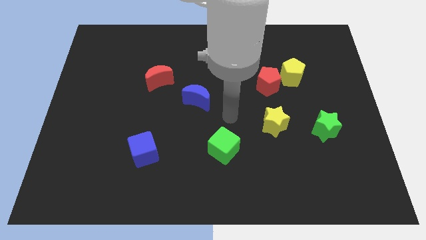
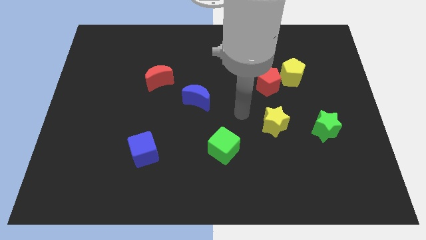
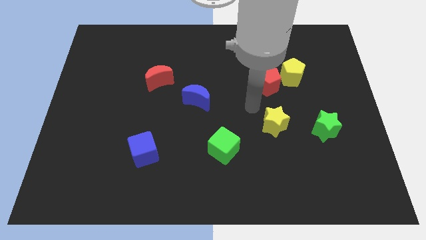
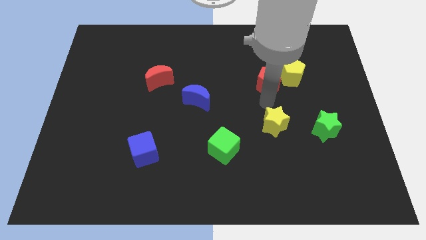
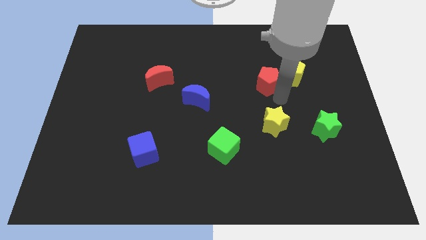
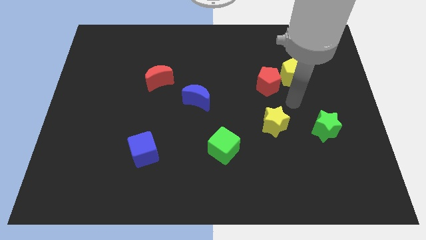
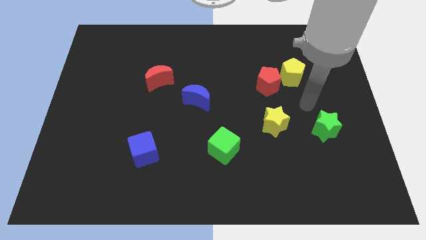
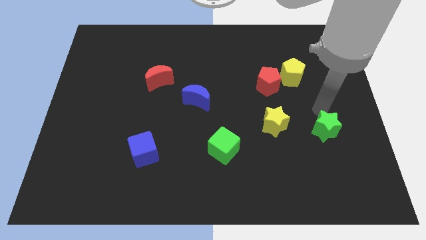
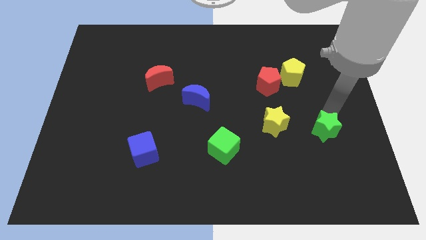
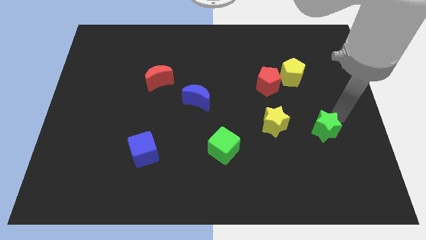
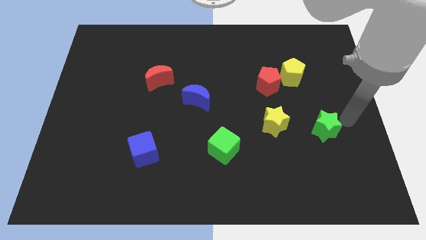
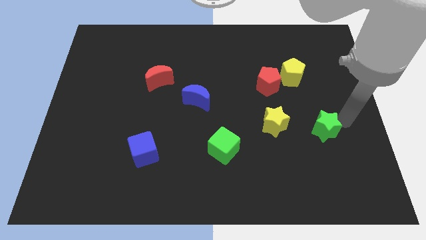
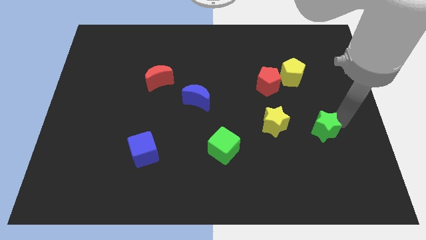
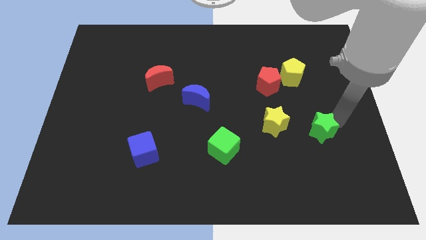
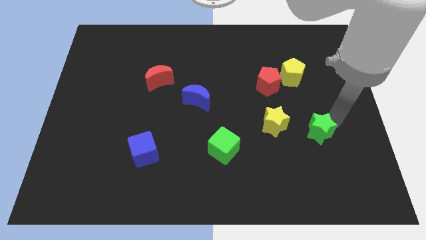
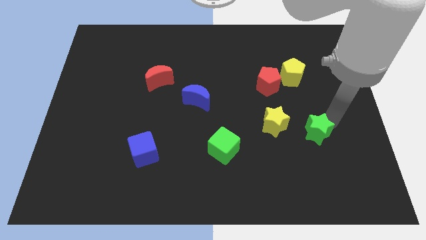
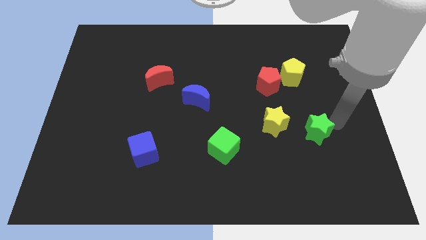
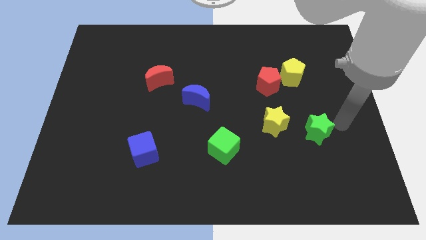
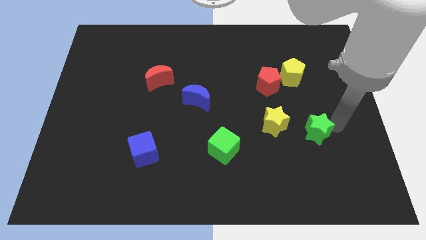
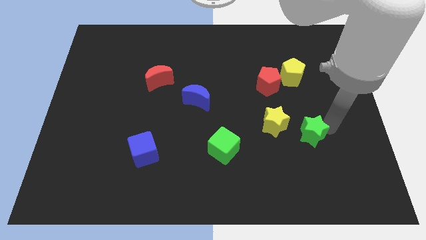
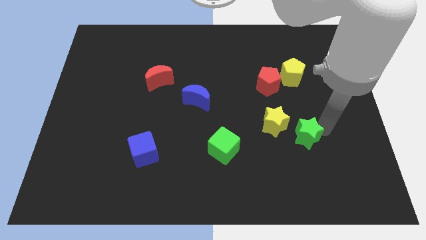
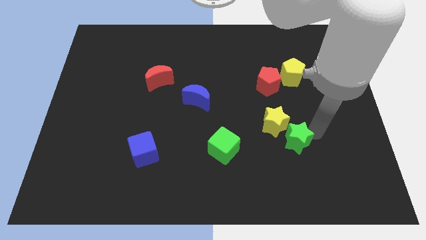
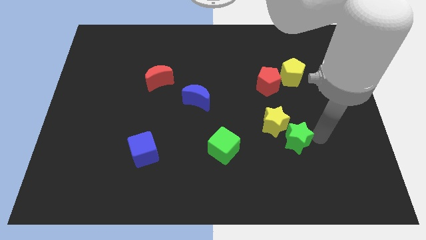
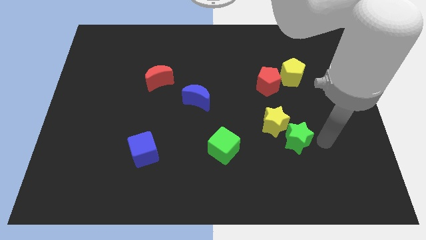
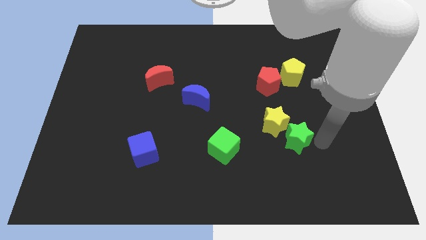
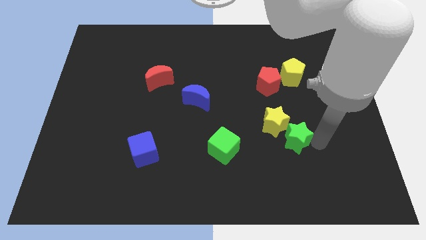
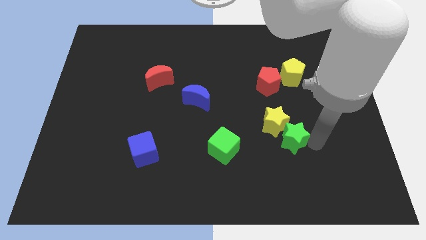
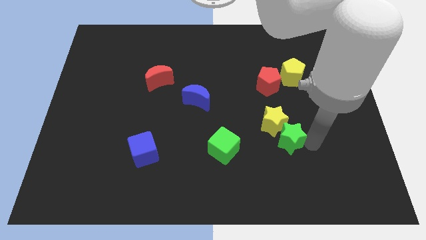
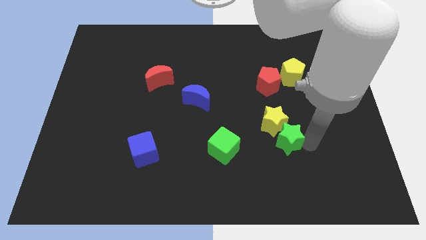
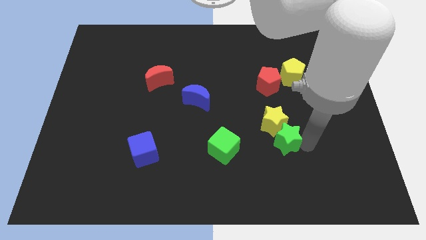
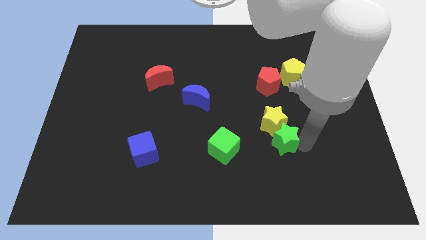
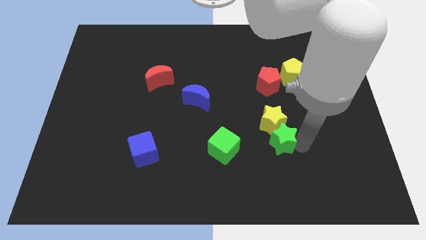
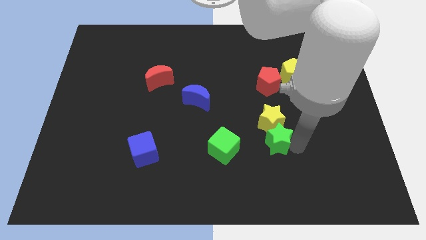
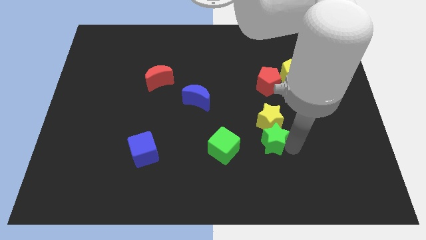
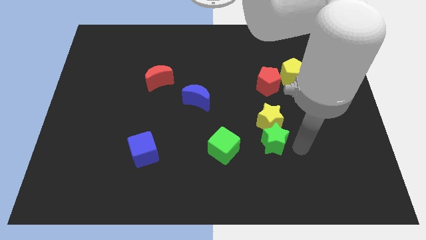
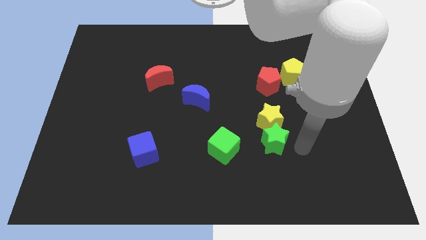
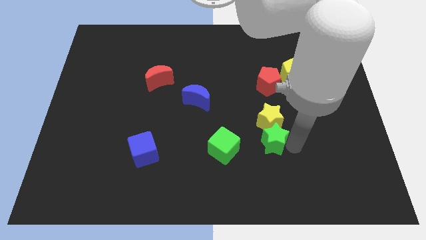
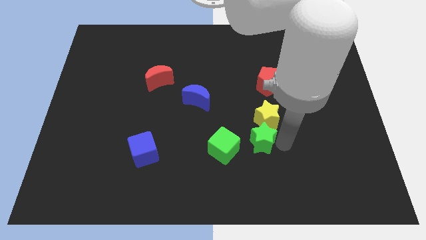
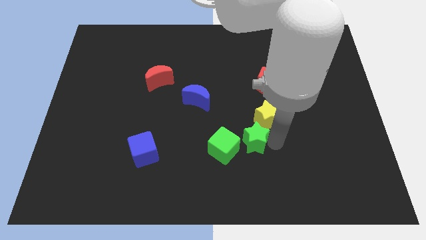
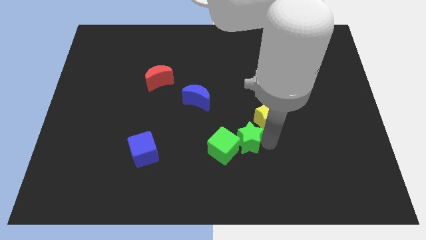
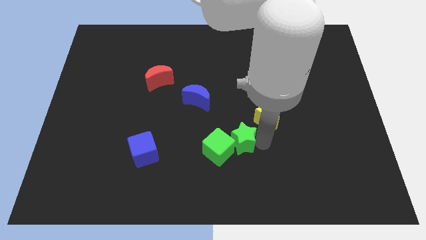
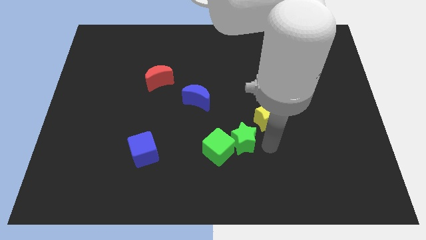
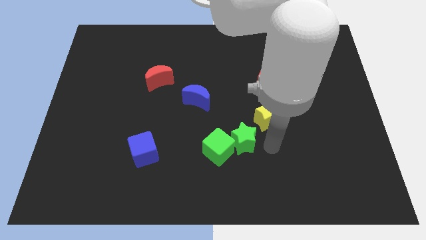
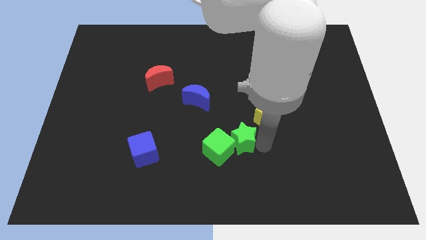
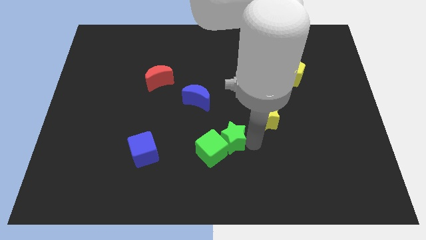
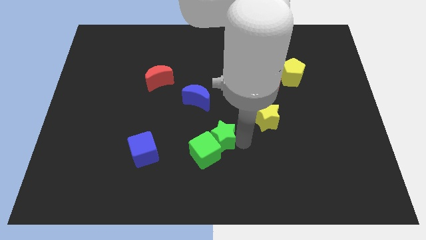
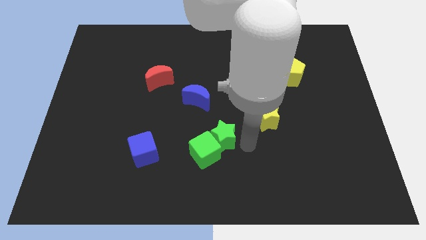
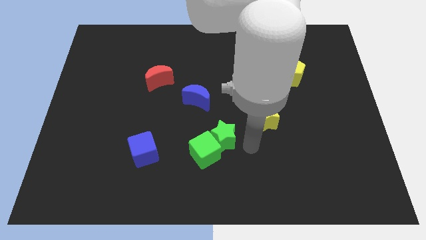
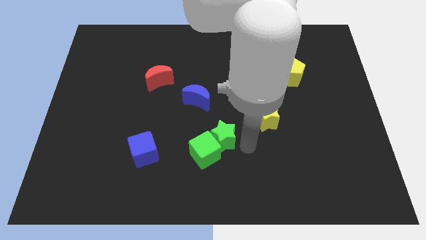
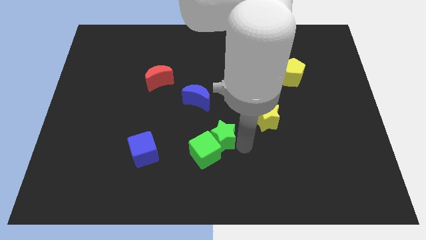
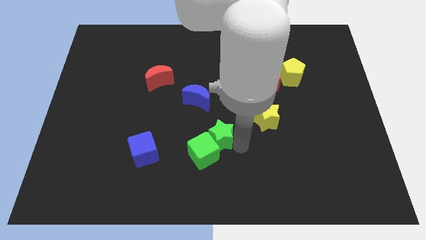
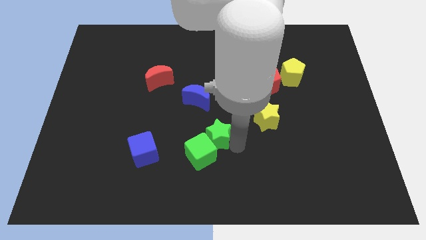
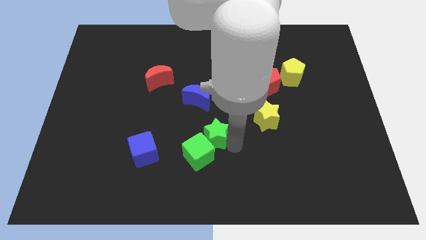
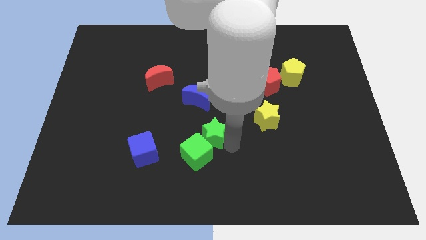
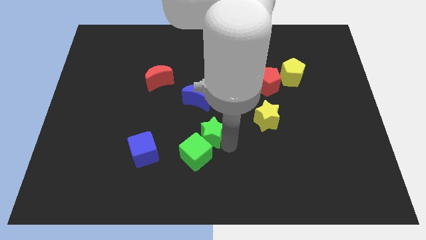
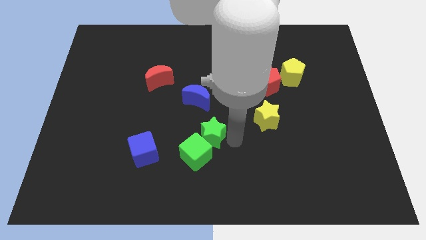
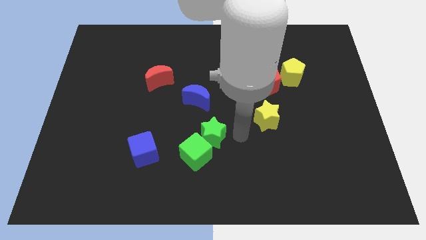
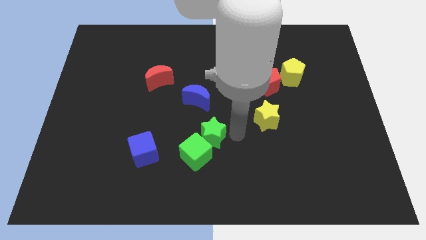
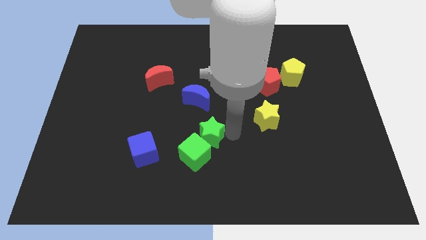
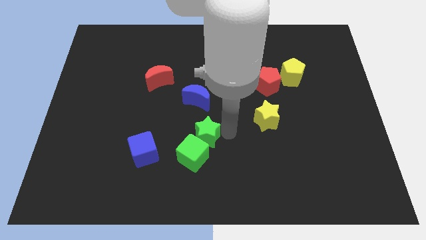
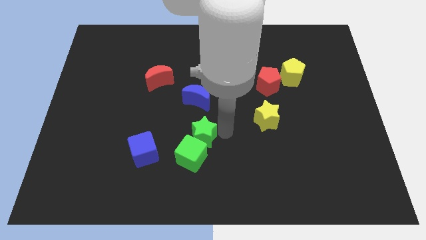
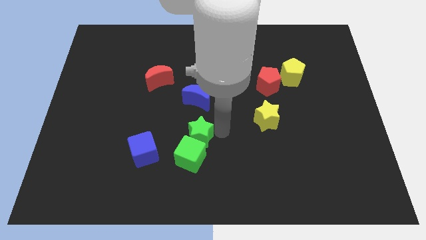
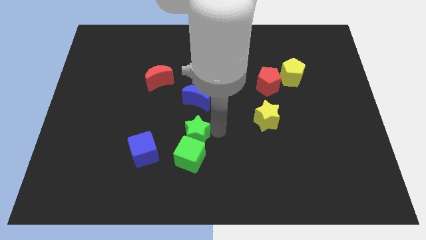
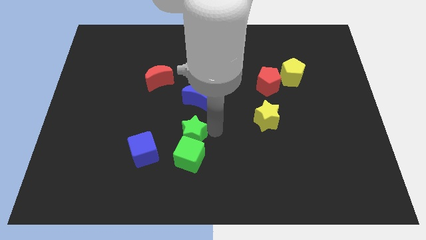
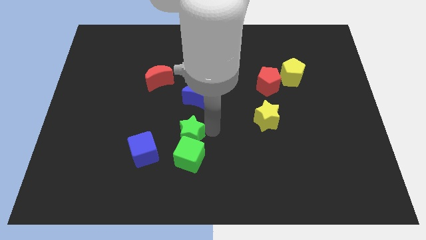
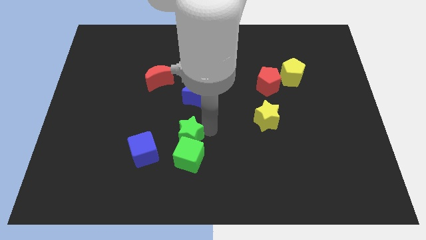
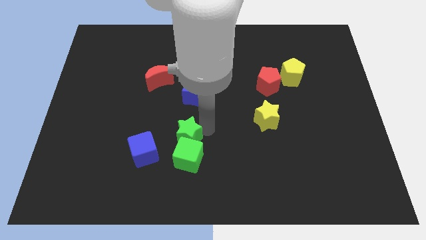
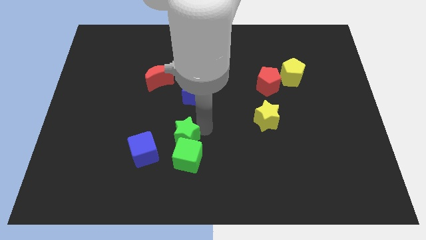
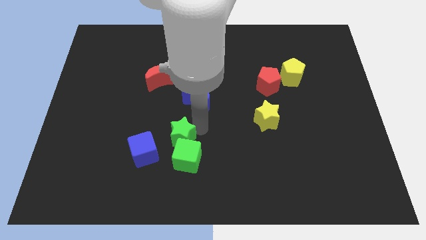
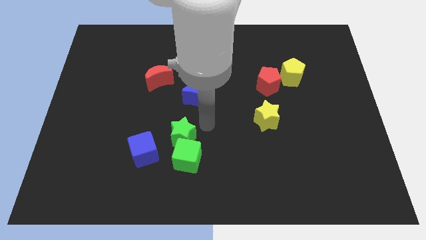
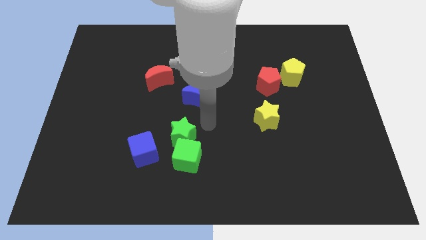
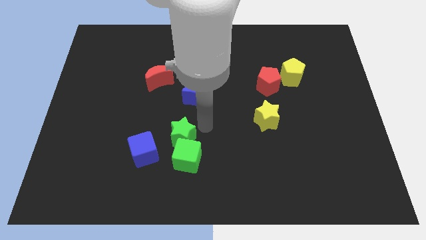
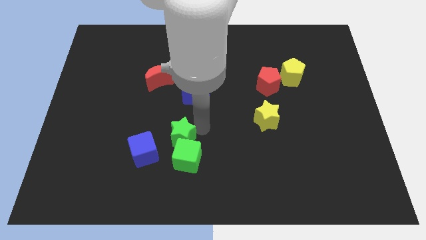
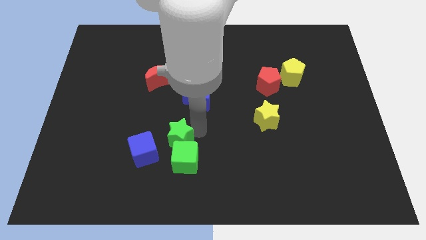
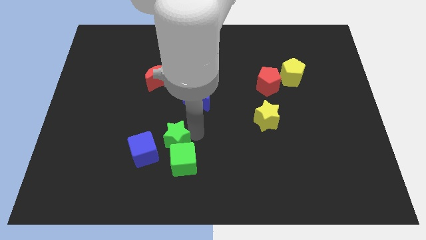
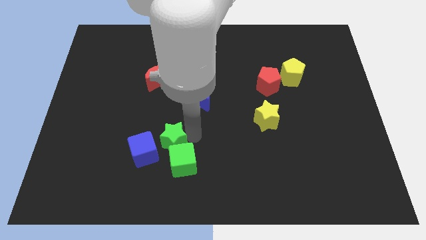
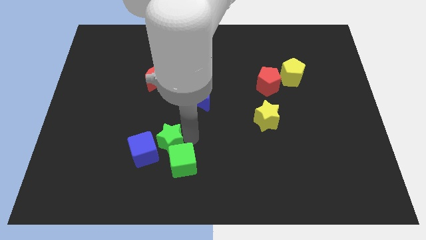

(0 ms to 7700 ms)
slide the green star next to the blue cube
